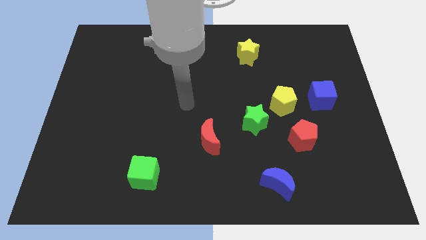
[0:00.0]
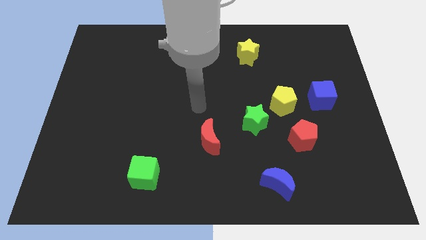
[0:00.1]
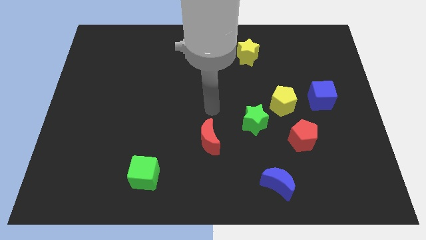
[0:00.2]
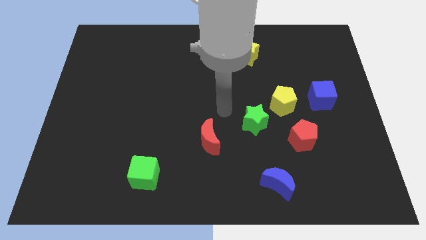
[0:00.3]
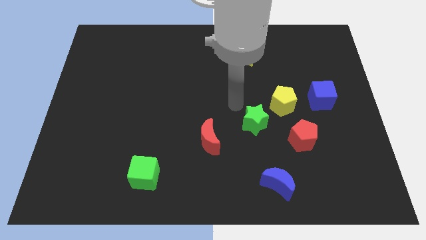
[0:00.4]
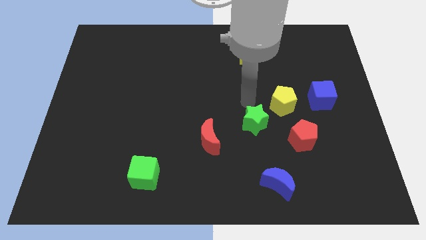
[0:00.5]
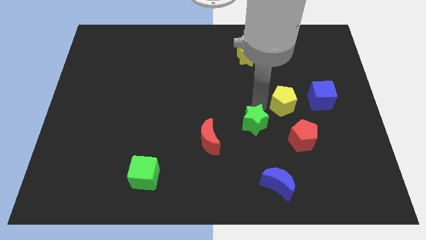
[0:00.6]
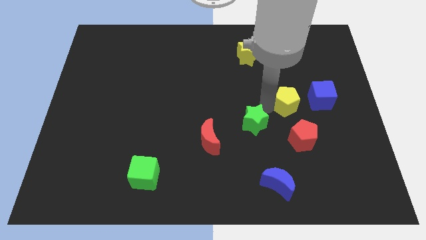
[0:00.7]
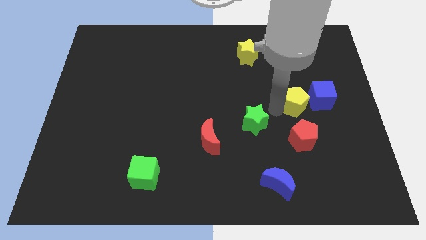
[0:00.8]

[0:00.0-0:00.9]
separate the green star from the yellow pentagon

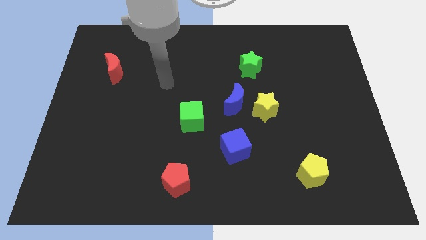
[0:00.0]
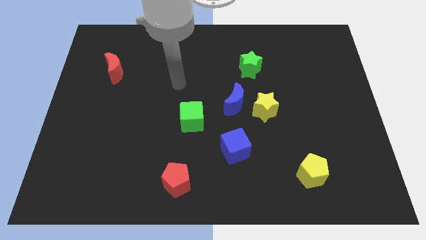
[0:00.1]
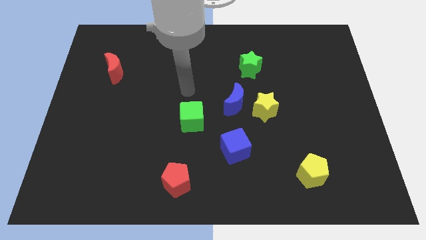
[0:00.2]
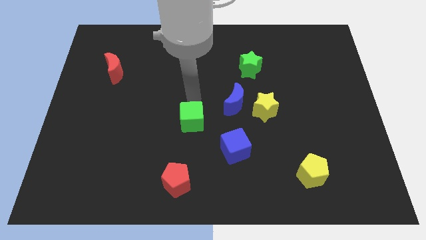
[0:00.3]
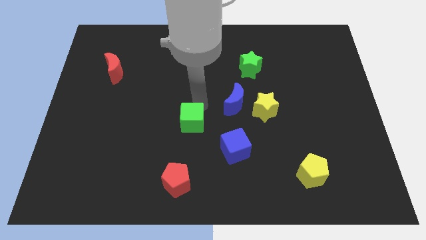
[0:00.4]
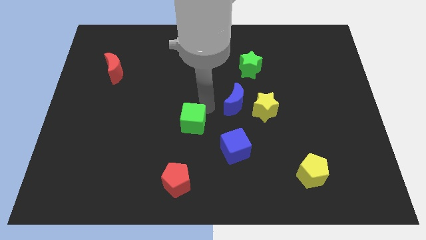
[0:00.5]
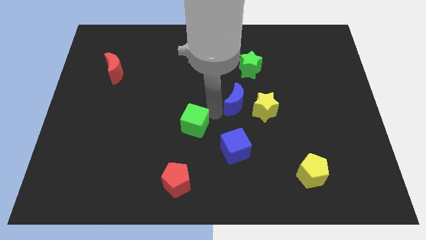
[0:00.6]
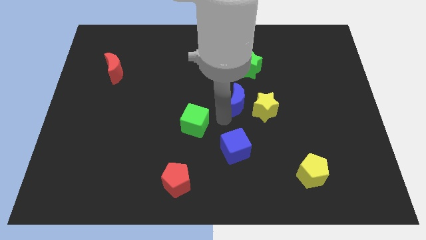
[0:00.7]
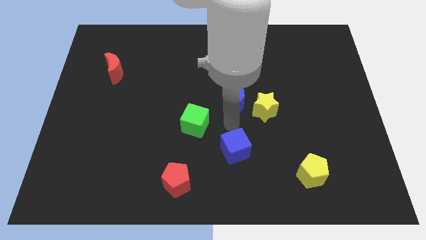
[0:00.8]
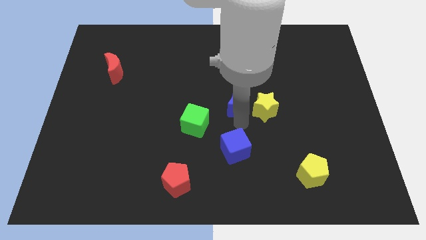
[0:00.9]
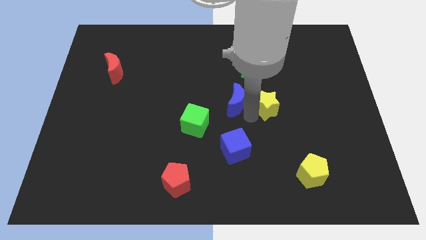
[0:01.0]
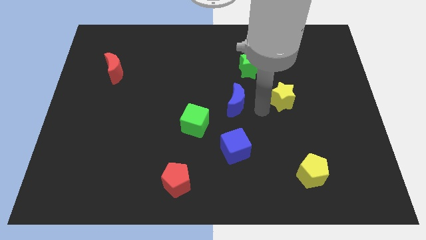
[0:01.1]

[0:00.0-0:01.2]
move the blue moon away from the yellow star

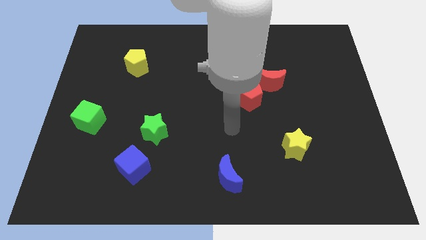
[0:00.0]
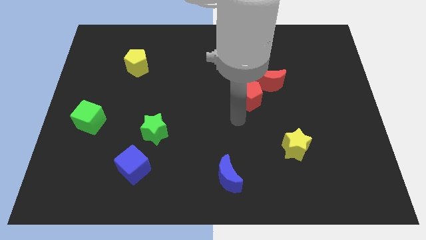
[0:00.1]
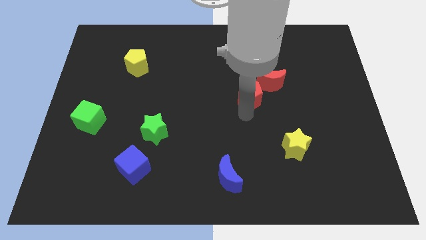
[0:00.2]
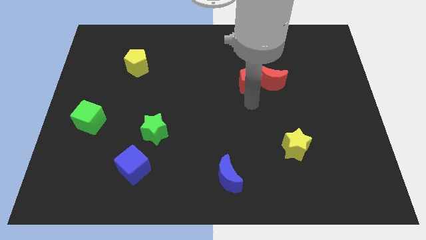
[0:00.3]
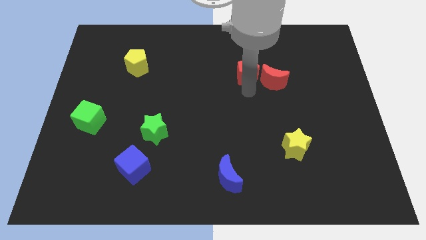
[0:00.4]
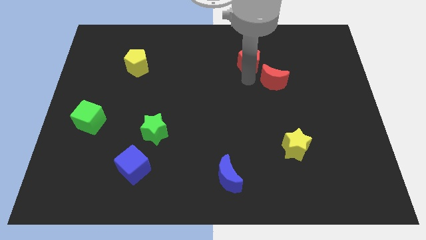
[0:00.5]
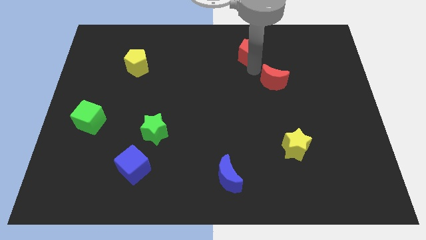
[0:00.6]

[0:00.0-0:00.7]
move the red moon away from the red pentagon

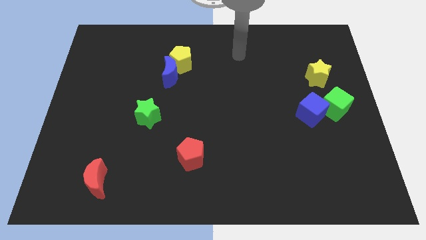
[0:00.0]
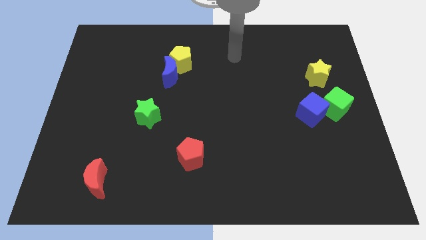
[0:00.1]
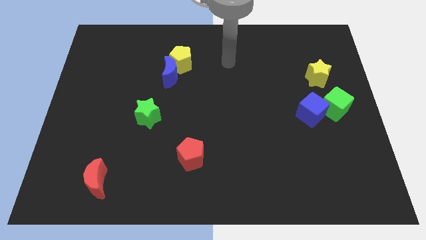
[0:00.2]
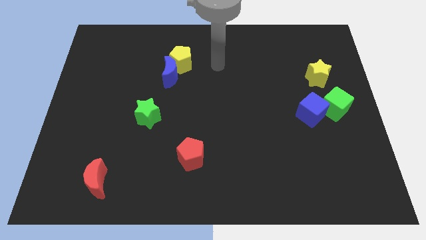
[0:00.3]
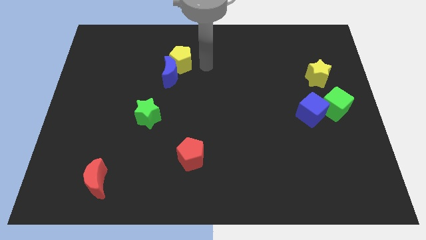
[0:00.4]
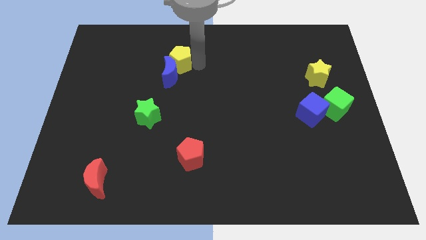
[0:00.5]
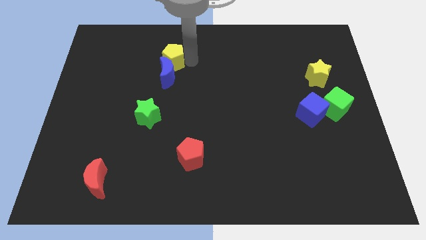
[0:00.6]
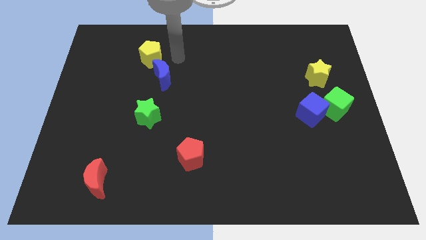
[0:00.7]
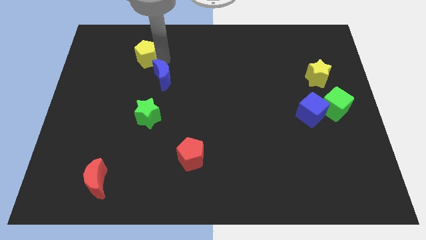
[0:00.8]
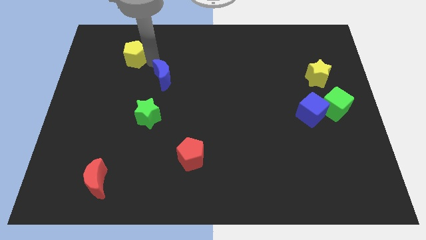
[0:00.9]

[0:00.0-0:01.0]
pull the blue moon apart from the yellow pentagon

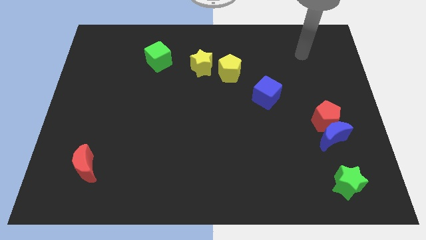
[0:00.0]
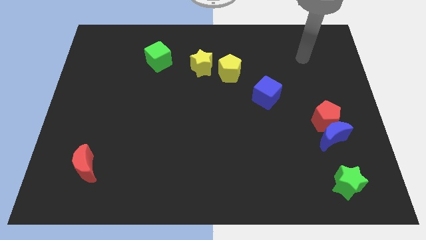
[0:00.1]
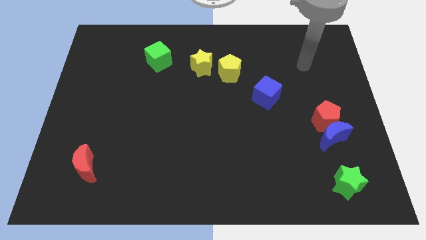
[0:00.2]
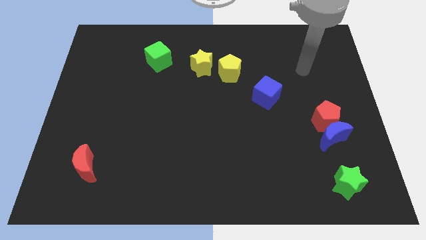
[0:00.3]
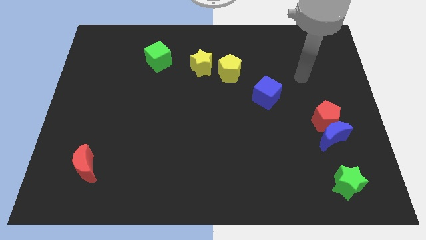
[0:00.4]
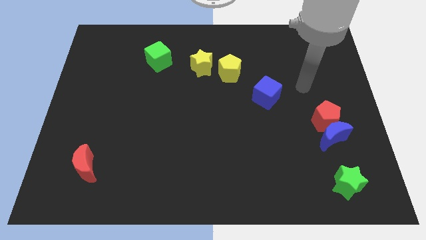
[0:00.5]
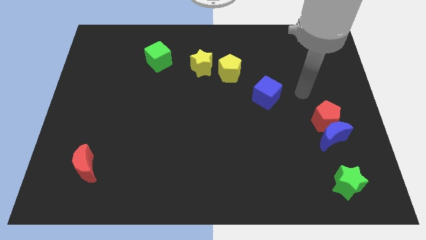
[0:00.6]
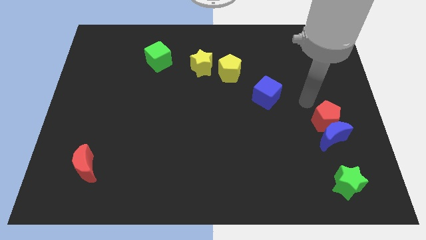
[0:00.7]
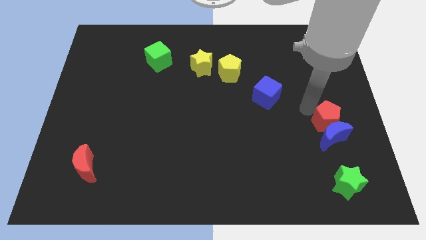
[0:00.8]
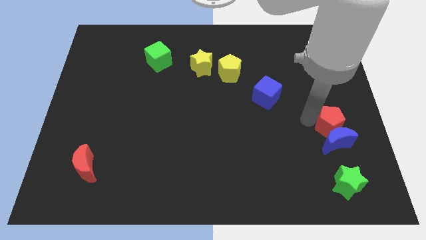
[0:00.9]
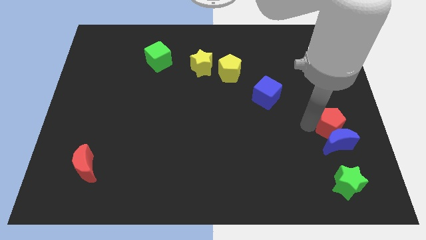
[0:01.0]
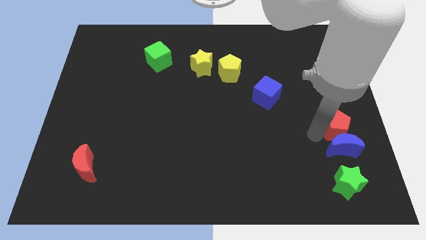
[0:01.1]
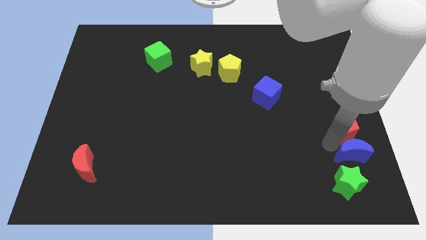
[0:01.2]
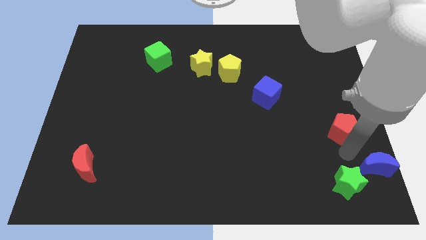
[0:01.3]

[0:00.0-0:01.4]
pull the red pentagon apart from the blue moon

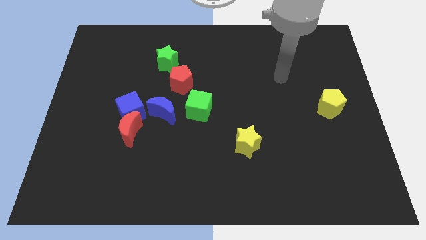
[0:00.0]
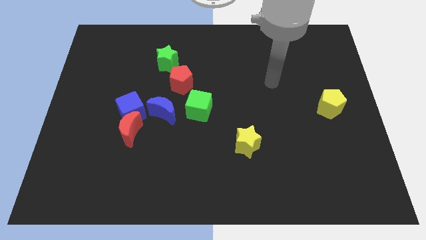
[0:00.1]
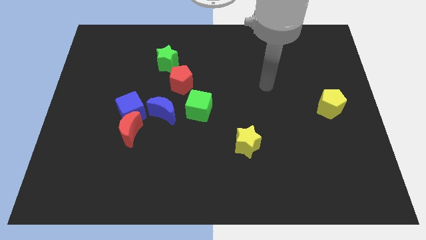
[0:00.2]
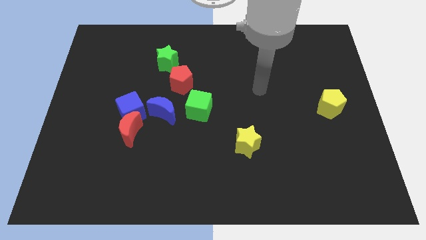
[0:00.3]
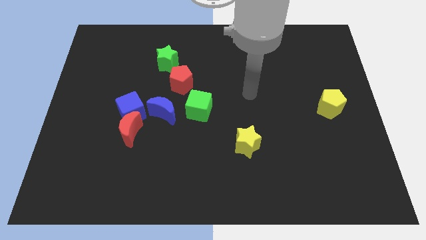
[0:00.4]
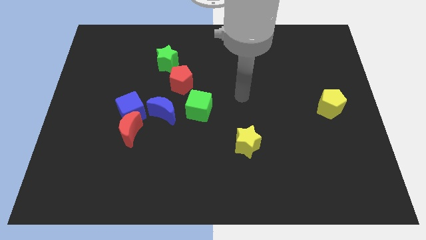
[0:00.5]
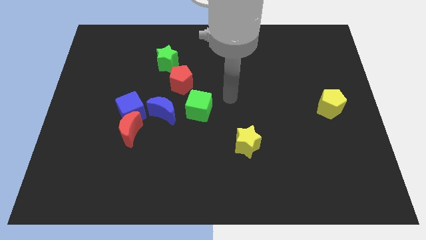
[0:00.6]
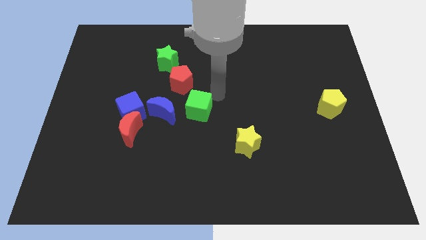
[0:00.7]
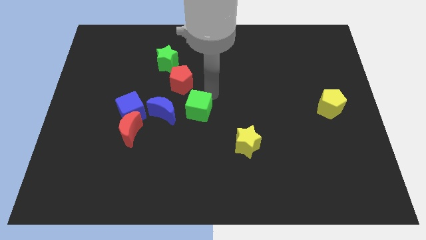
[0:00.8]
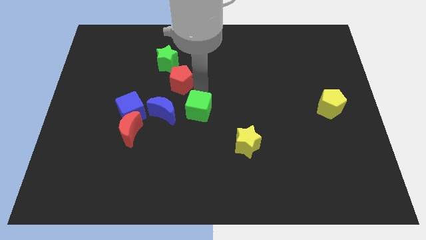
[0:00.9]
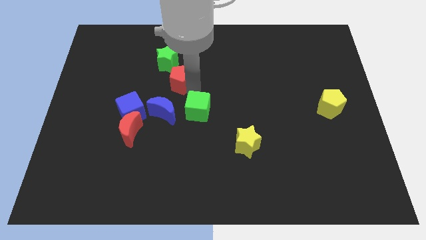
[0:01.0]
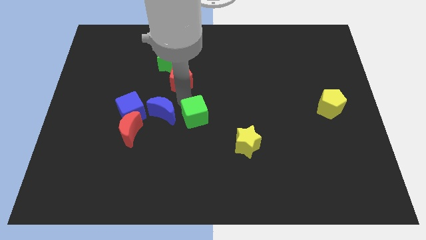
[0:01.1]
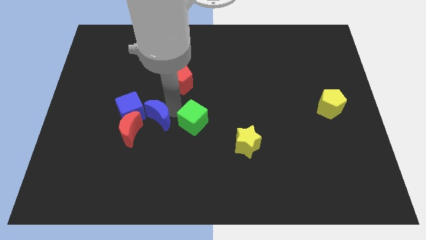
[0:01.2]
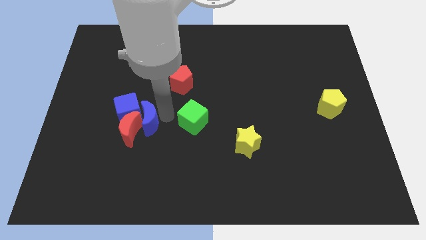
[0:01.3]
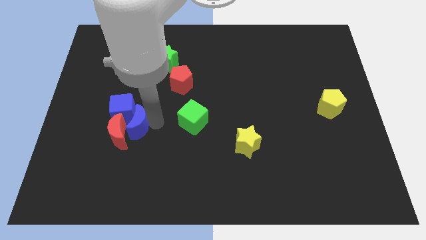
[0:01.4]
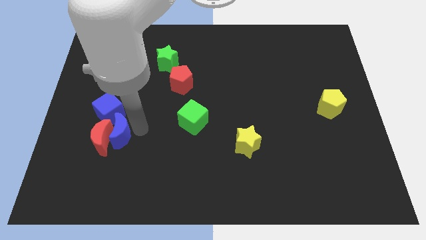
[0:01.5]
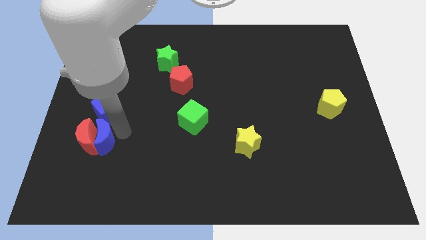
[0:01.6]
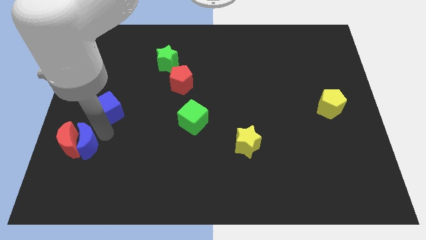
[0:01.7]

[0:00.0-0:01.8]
separate the blue cube from the red moon and blue moon

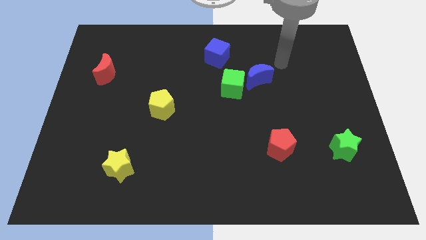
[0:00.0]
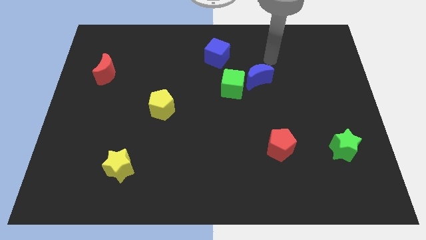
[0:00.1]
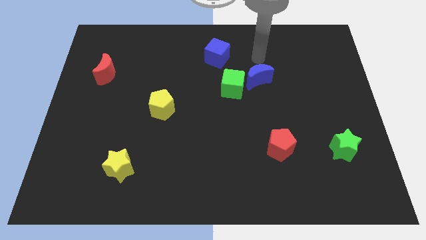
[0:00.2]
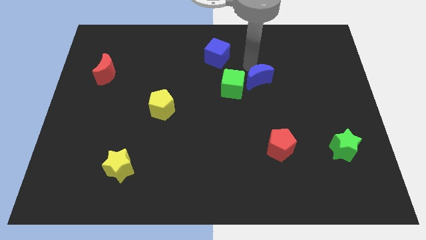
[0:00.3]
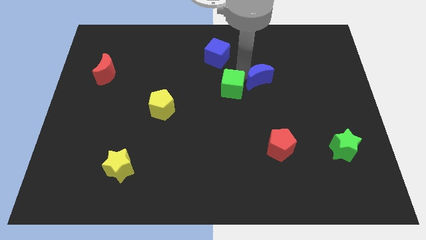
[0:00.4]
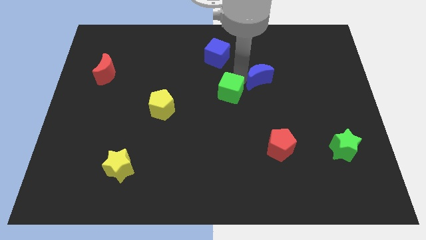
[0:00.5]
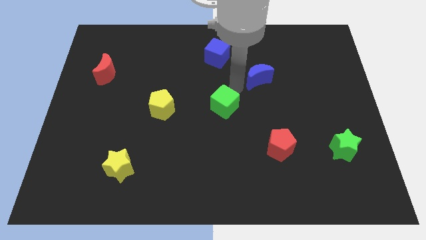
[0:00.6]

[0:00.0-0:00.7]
pull the blue moon apart from the green cube

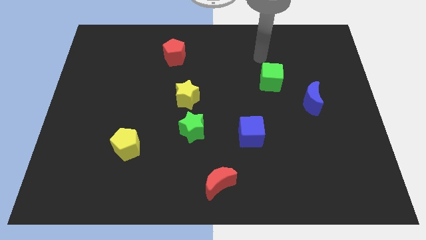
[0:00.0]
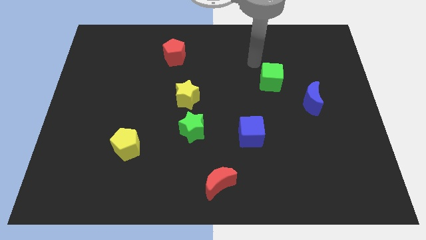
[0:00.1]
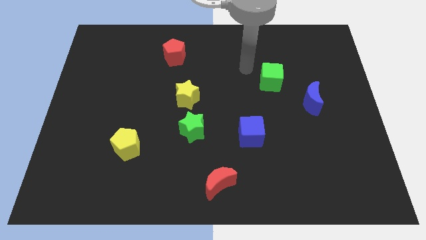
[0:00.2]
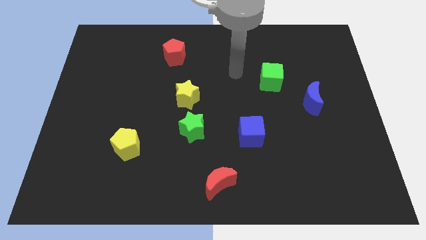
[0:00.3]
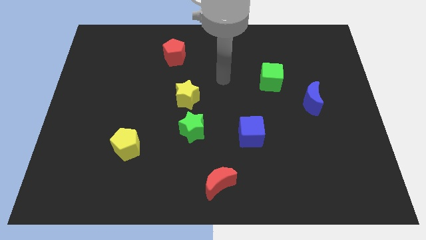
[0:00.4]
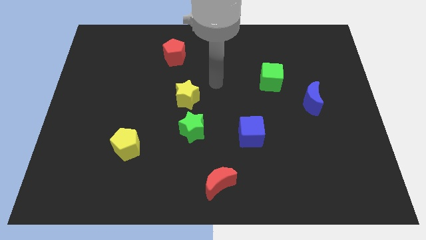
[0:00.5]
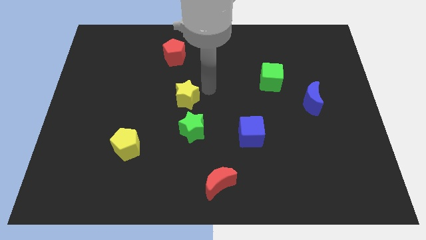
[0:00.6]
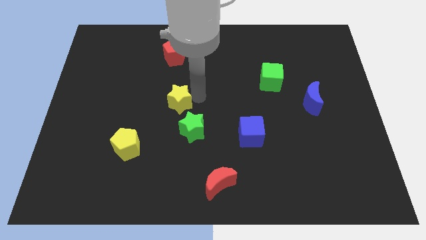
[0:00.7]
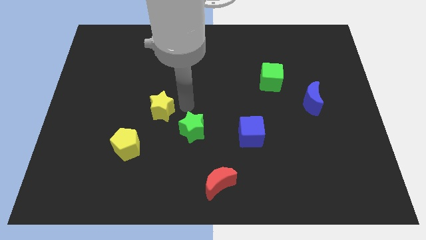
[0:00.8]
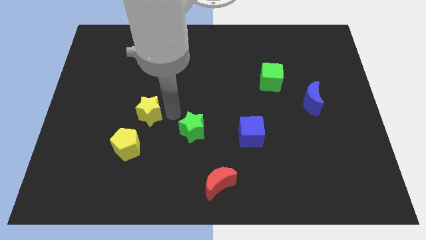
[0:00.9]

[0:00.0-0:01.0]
move the green star away from the yellow star

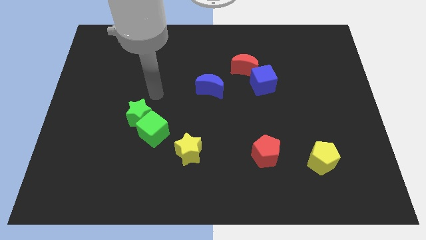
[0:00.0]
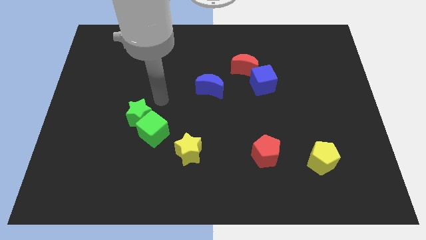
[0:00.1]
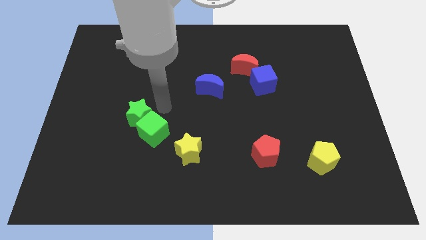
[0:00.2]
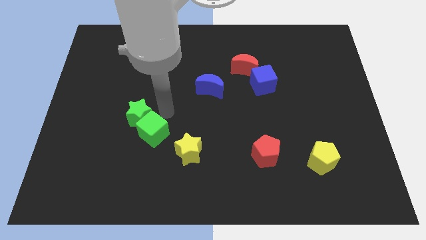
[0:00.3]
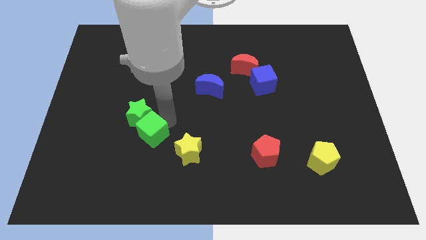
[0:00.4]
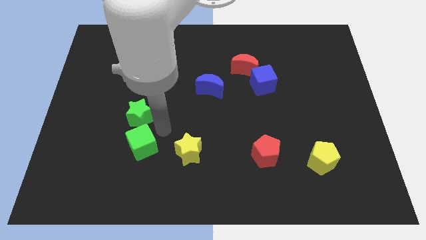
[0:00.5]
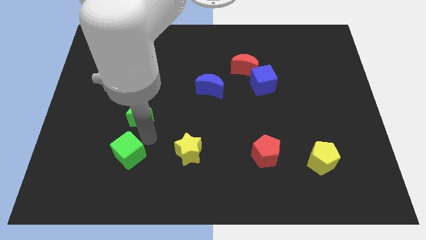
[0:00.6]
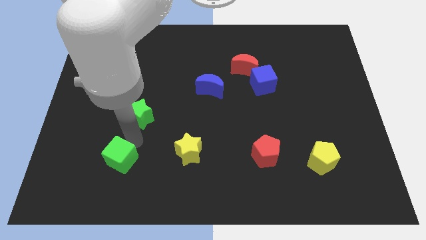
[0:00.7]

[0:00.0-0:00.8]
move the green star away from the green cube
